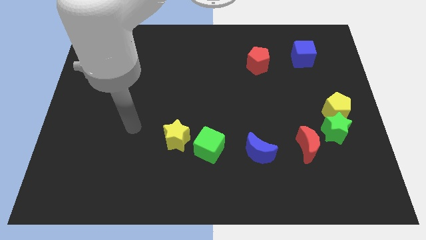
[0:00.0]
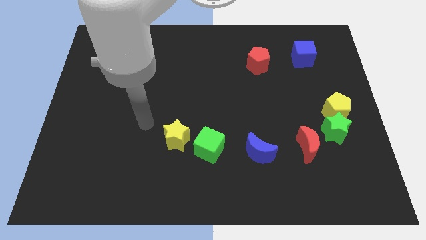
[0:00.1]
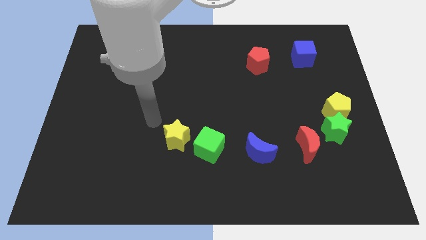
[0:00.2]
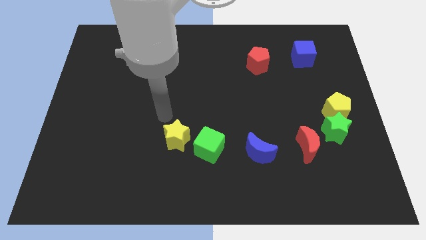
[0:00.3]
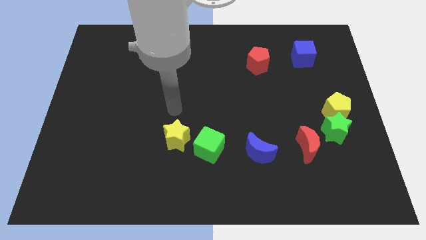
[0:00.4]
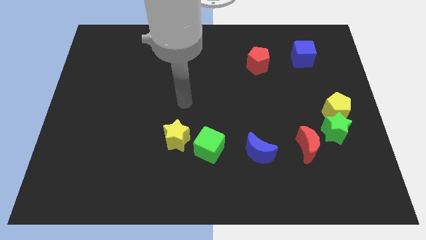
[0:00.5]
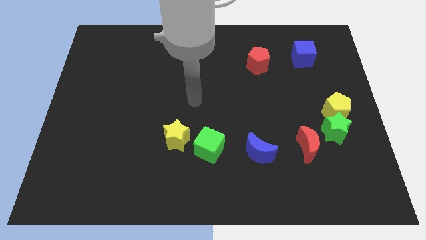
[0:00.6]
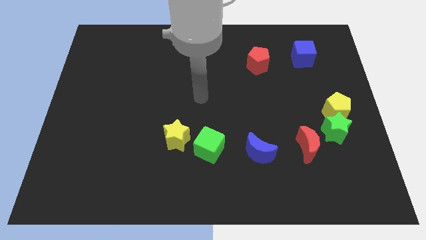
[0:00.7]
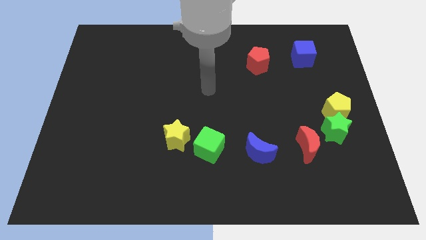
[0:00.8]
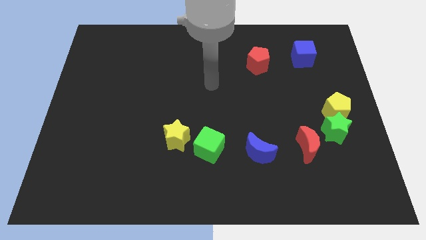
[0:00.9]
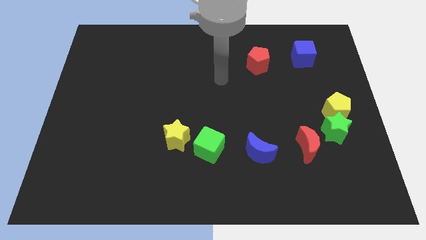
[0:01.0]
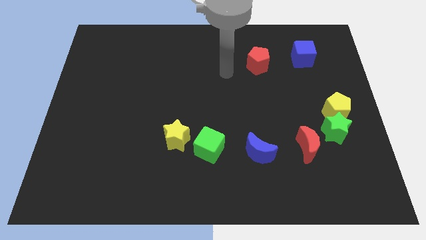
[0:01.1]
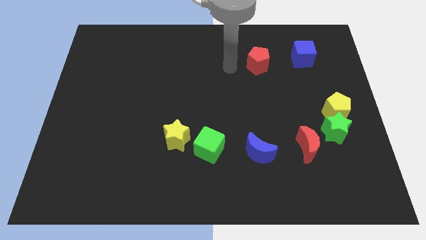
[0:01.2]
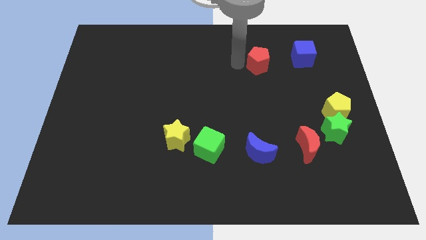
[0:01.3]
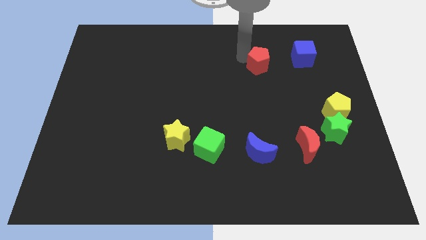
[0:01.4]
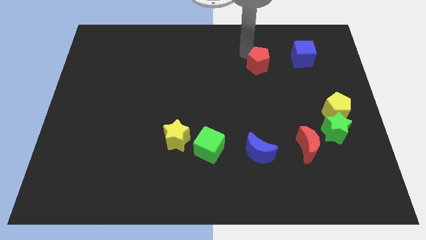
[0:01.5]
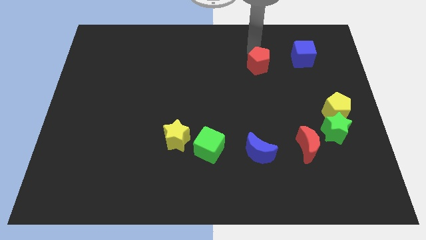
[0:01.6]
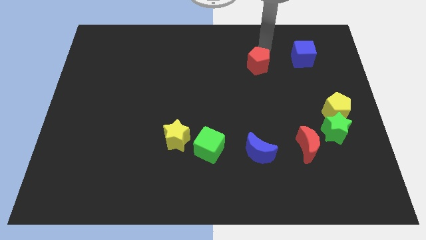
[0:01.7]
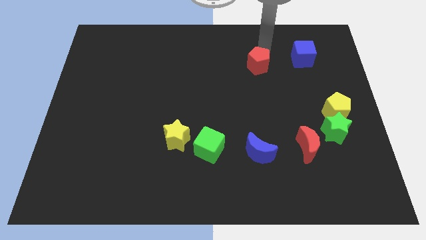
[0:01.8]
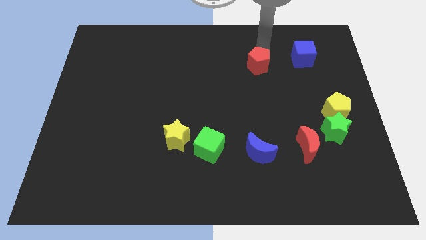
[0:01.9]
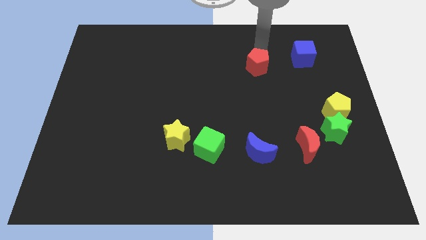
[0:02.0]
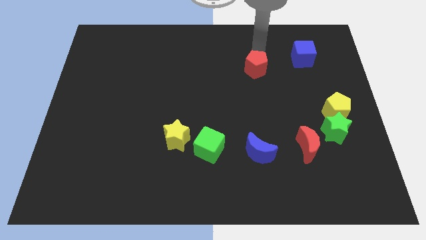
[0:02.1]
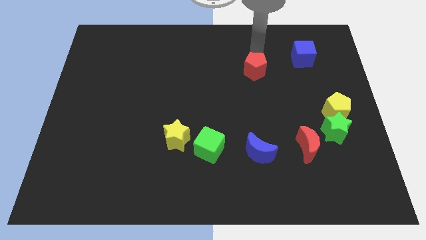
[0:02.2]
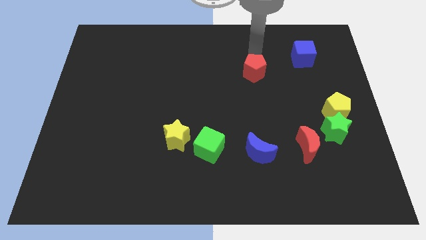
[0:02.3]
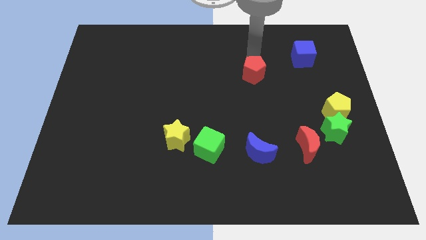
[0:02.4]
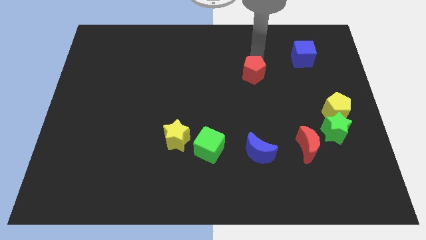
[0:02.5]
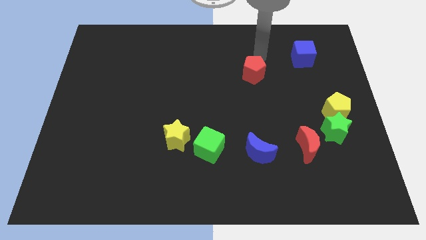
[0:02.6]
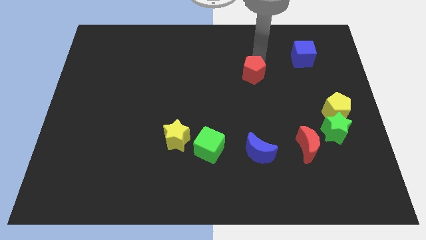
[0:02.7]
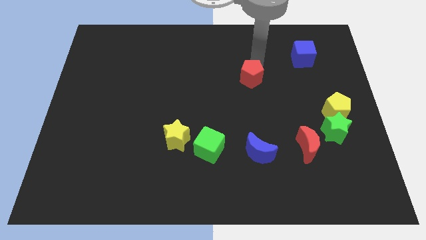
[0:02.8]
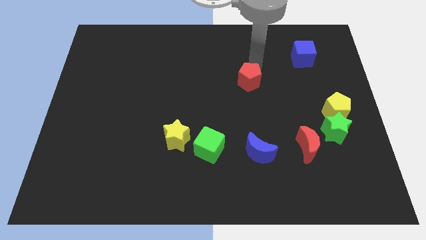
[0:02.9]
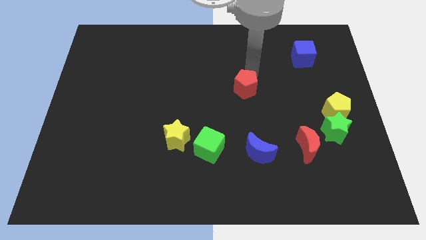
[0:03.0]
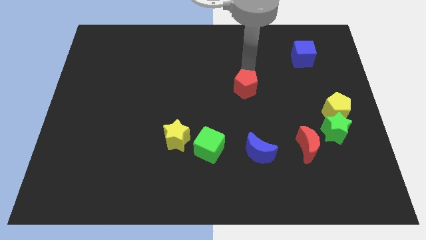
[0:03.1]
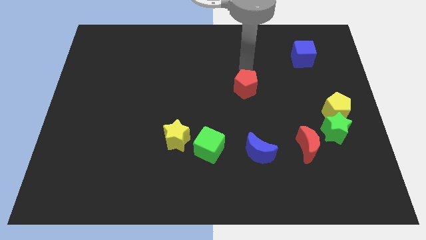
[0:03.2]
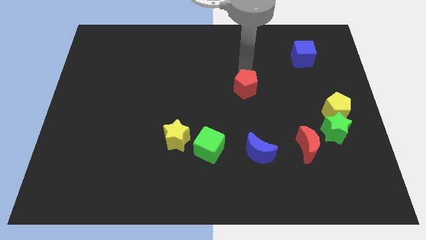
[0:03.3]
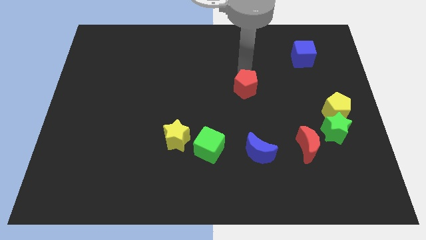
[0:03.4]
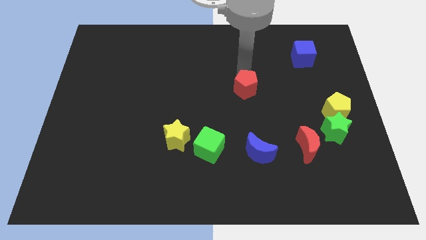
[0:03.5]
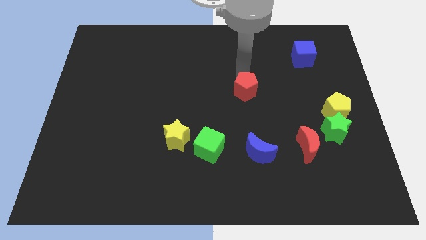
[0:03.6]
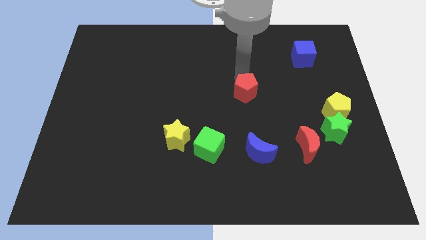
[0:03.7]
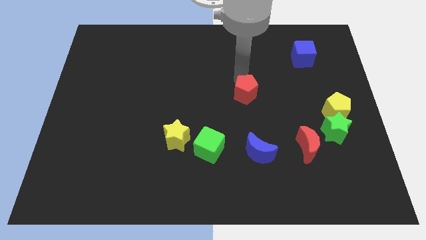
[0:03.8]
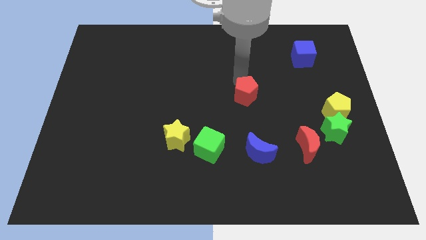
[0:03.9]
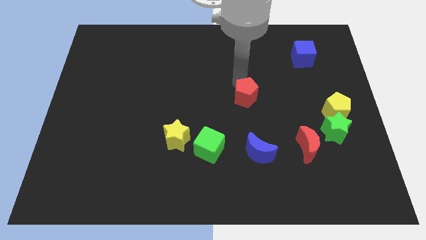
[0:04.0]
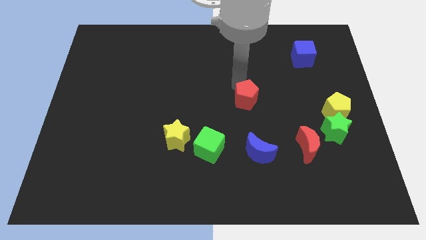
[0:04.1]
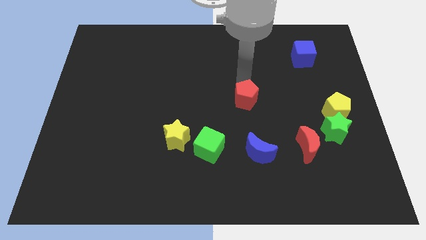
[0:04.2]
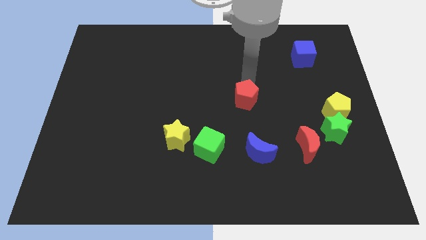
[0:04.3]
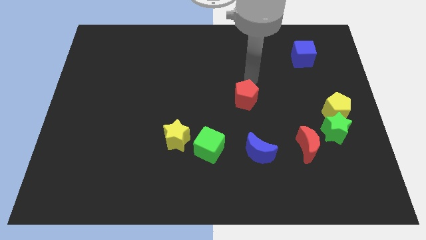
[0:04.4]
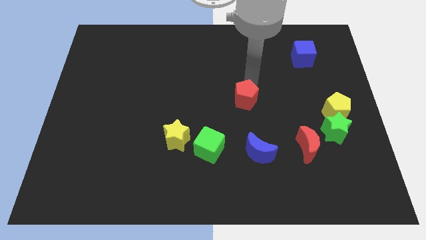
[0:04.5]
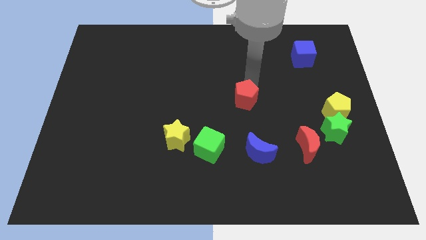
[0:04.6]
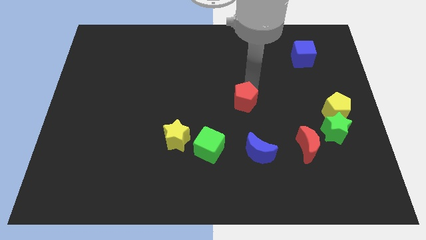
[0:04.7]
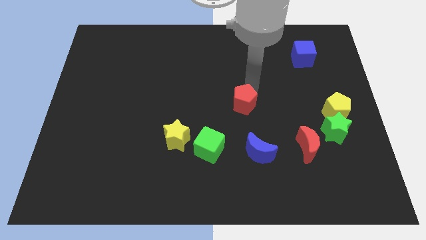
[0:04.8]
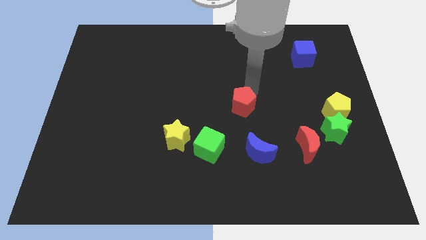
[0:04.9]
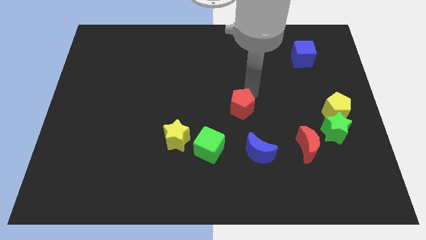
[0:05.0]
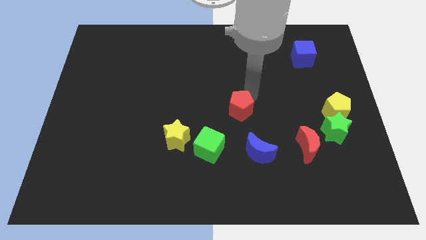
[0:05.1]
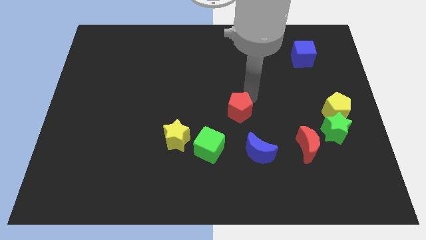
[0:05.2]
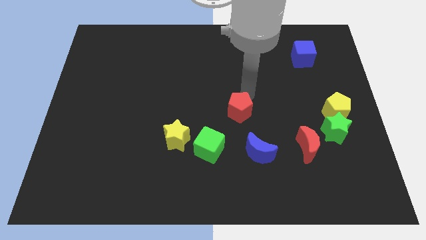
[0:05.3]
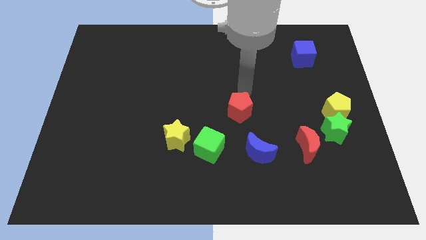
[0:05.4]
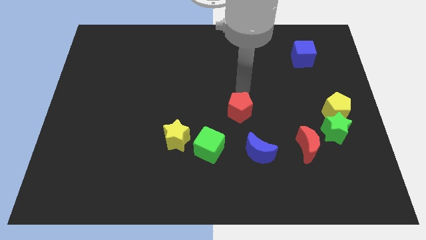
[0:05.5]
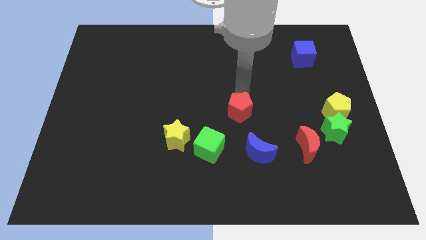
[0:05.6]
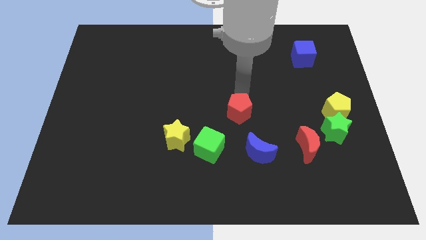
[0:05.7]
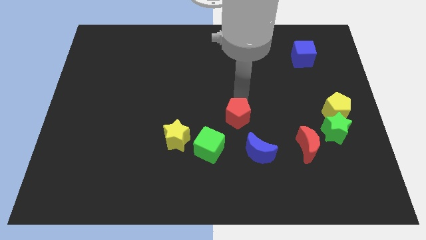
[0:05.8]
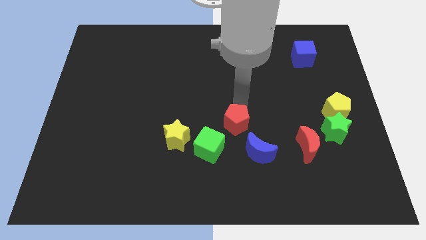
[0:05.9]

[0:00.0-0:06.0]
push the red pentagon to the right of the yellow star

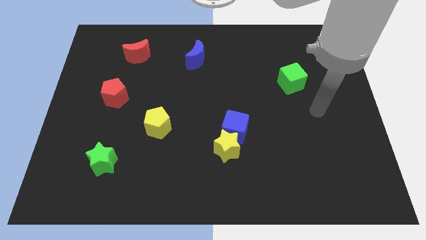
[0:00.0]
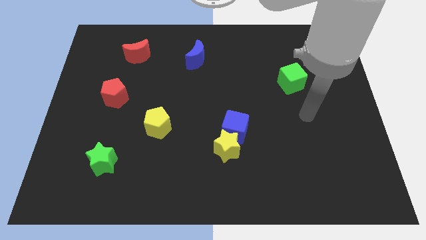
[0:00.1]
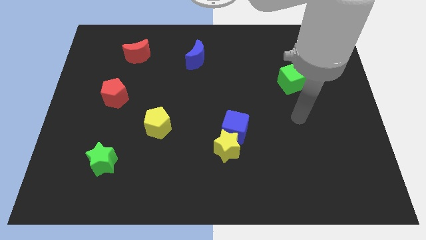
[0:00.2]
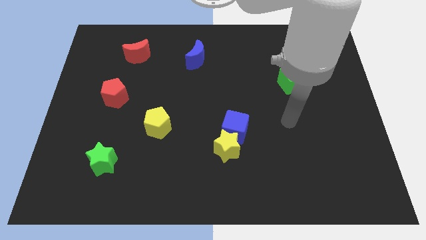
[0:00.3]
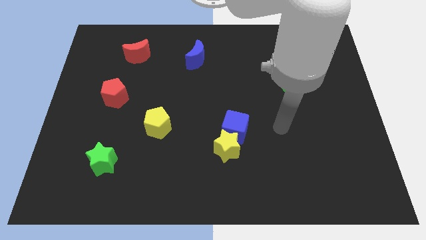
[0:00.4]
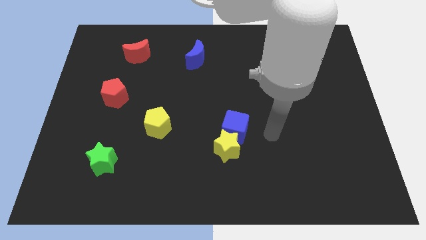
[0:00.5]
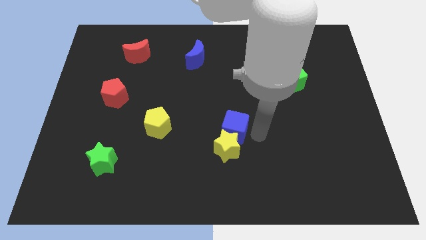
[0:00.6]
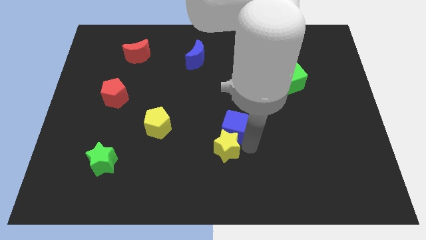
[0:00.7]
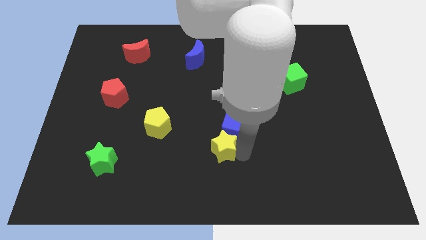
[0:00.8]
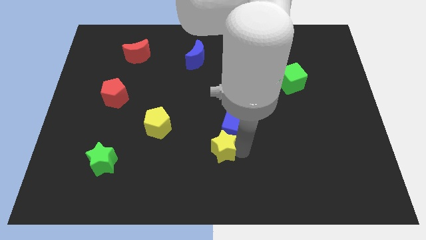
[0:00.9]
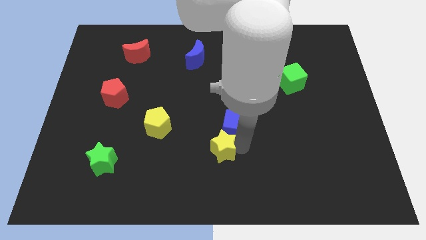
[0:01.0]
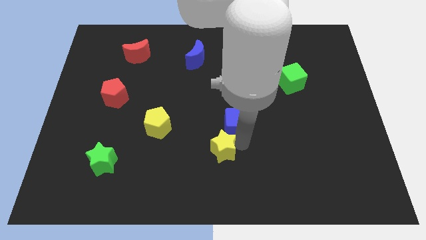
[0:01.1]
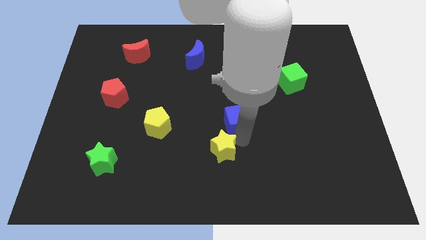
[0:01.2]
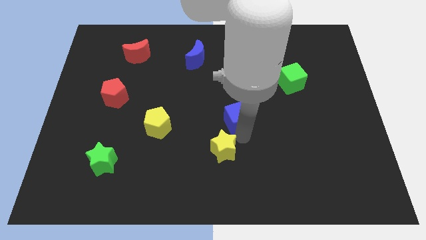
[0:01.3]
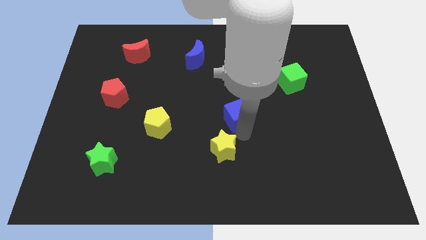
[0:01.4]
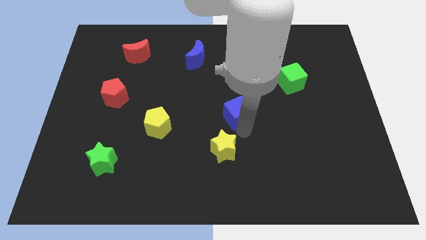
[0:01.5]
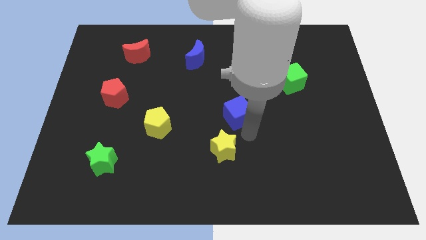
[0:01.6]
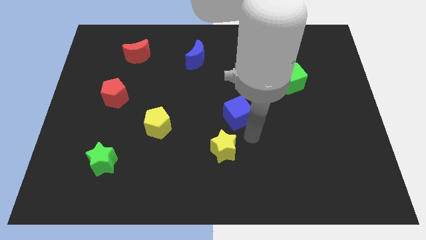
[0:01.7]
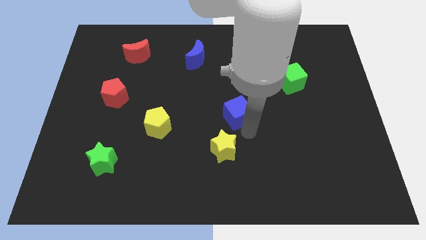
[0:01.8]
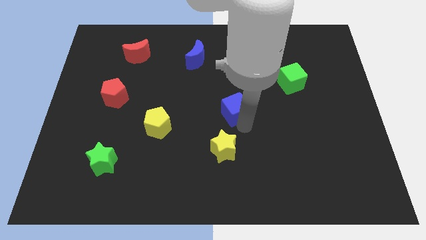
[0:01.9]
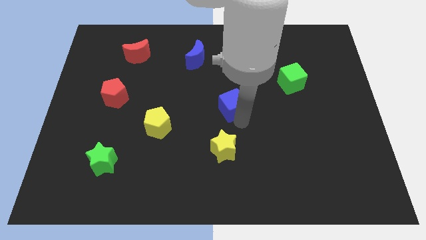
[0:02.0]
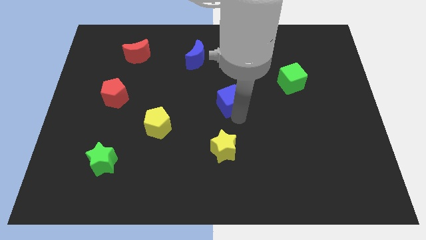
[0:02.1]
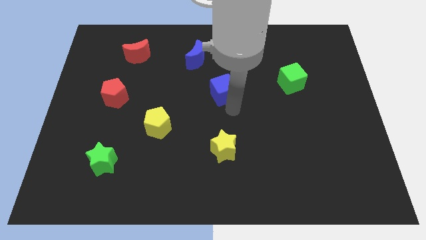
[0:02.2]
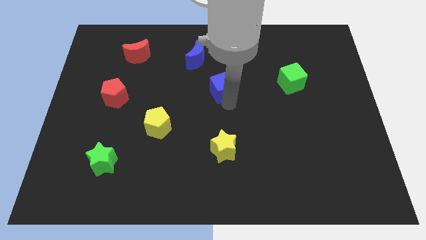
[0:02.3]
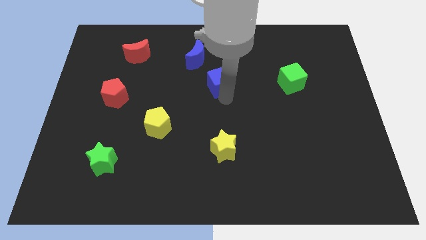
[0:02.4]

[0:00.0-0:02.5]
slide the blue cube to the bottom right side of the blue moon

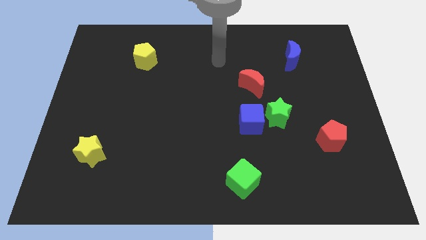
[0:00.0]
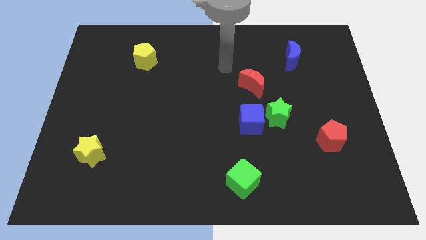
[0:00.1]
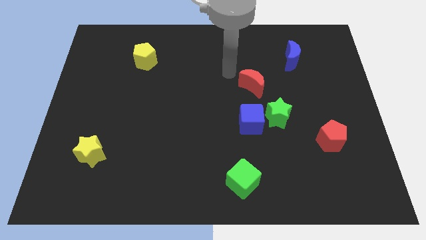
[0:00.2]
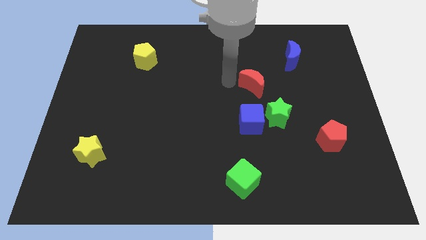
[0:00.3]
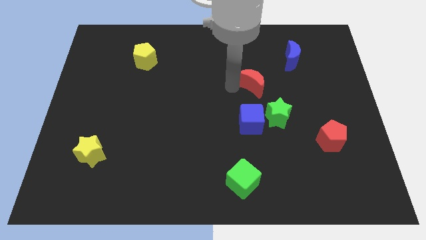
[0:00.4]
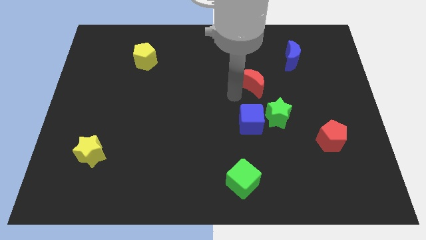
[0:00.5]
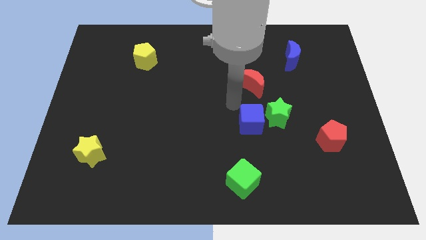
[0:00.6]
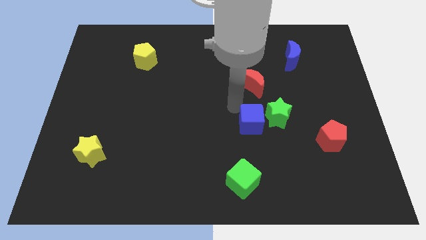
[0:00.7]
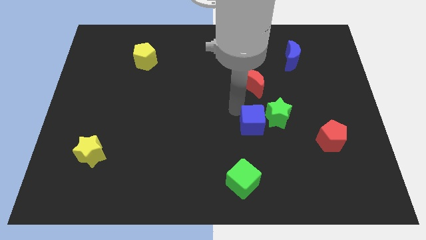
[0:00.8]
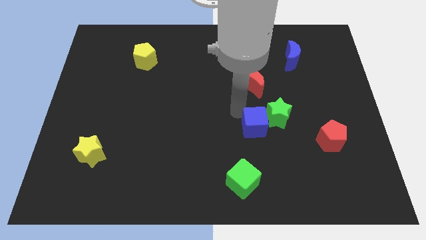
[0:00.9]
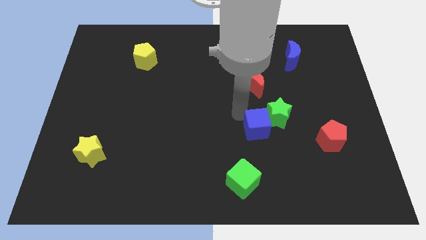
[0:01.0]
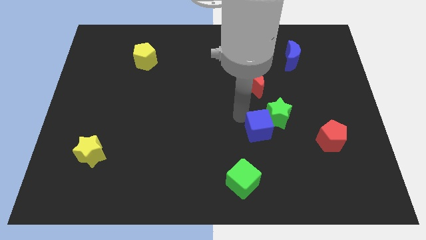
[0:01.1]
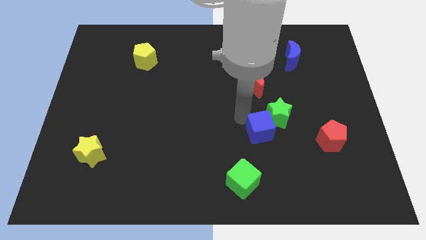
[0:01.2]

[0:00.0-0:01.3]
move the blue cube below the green star
